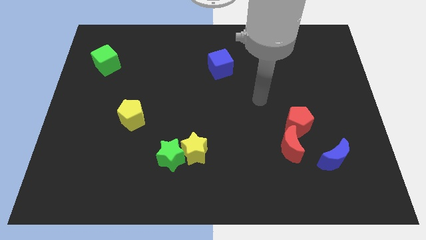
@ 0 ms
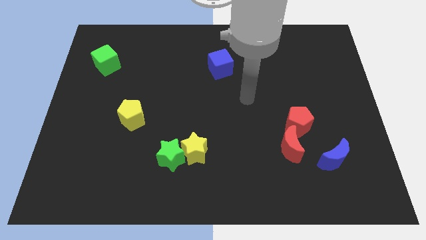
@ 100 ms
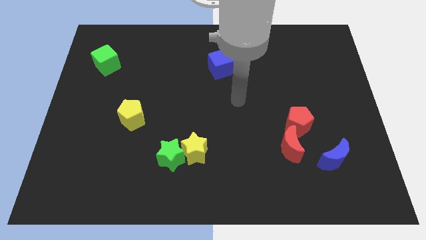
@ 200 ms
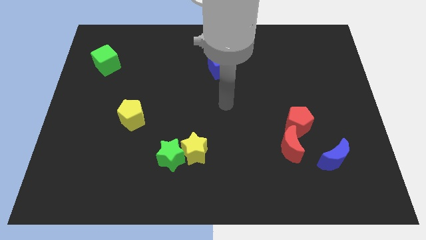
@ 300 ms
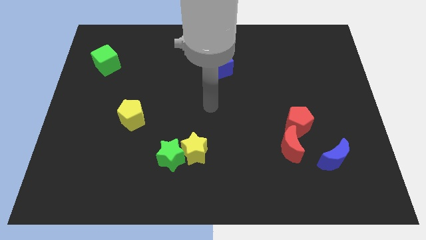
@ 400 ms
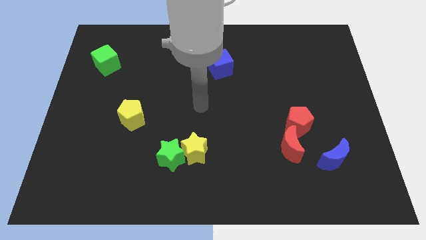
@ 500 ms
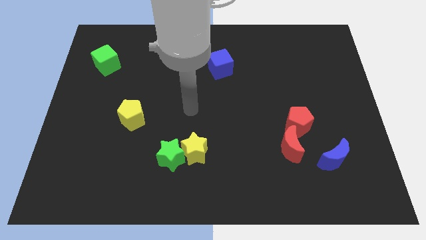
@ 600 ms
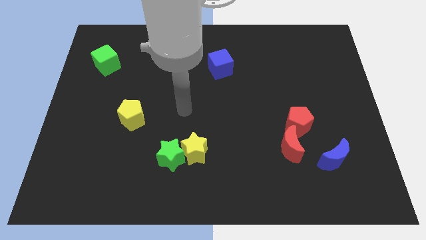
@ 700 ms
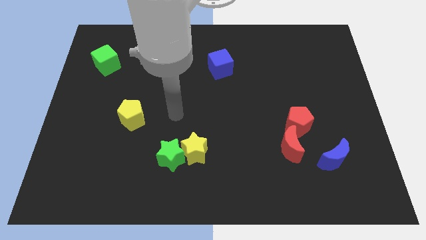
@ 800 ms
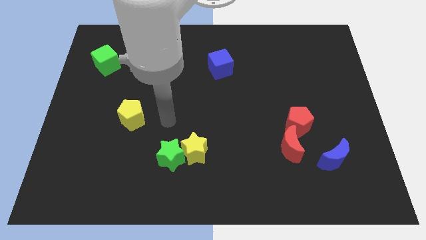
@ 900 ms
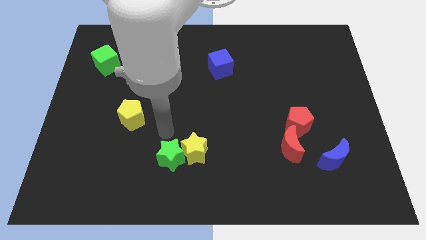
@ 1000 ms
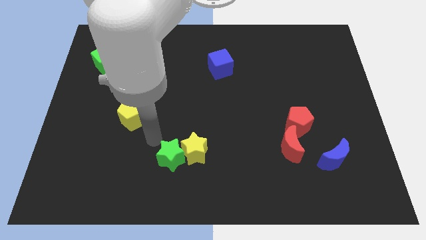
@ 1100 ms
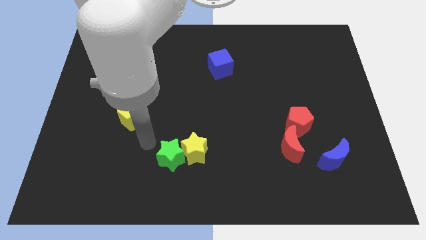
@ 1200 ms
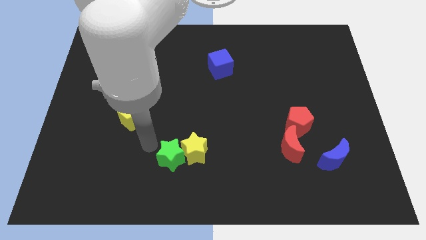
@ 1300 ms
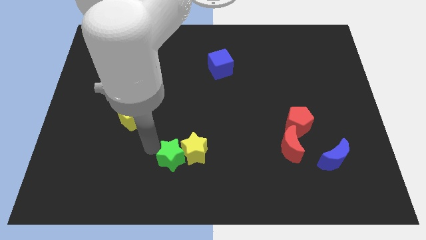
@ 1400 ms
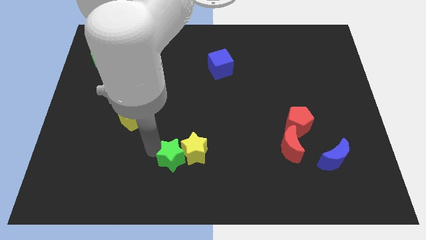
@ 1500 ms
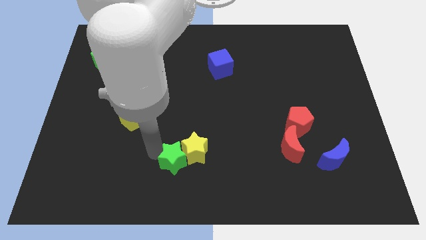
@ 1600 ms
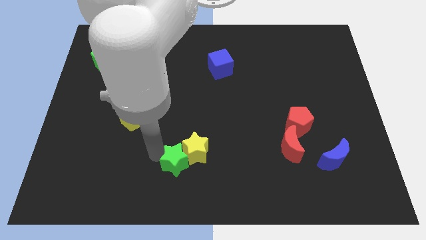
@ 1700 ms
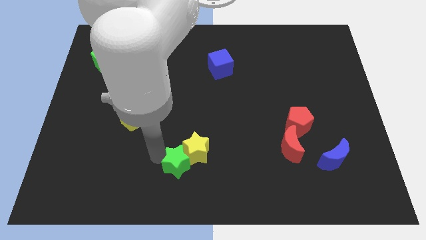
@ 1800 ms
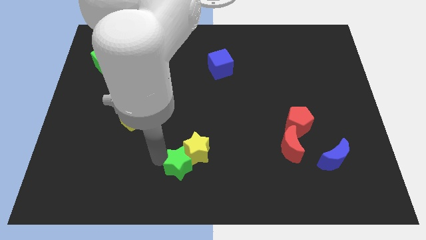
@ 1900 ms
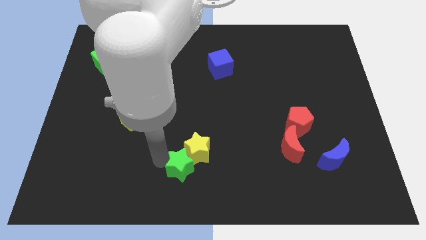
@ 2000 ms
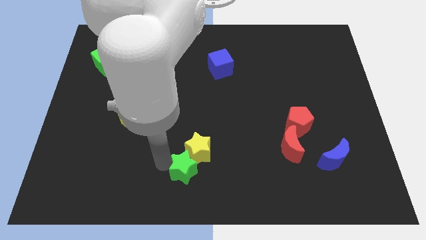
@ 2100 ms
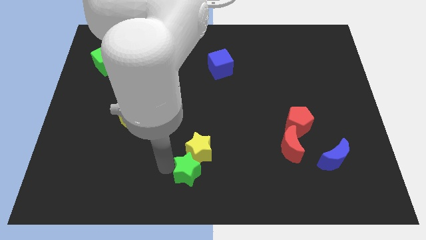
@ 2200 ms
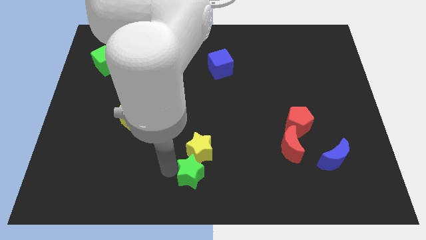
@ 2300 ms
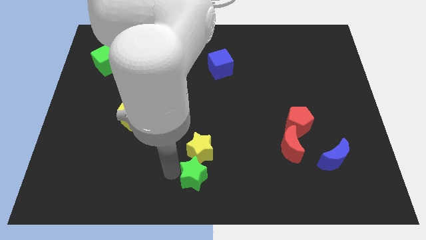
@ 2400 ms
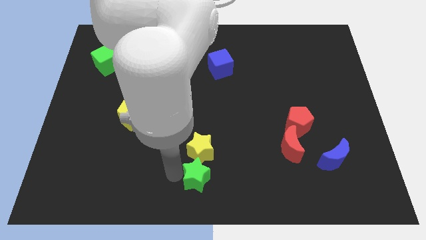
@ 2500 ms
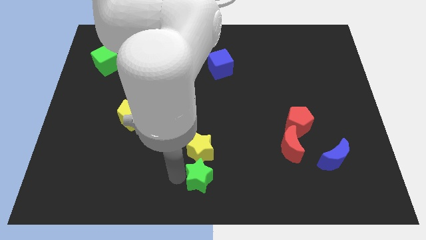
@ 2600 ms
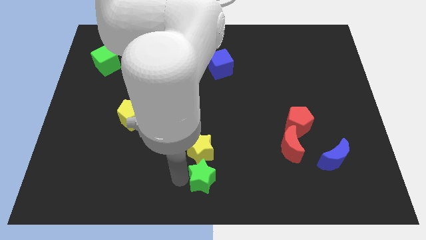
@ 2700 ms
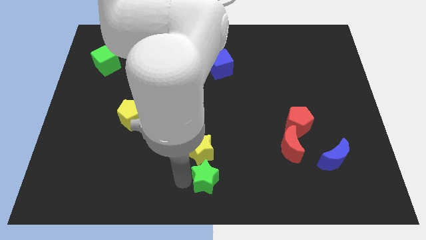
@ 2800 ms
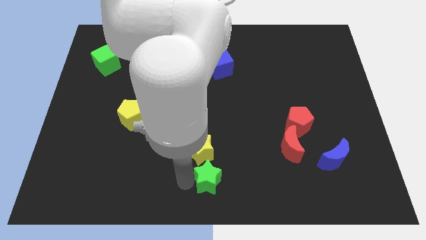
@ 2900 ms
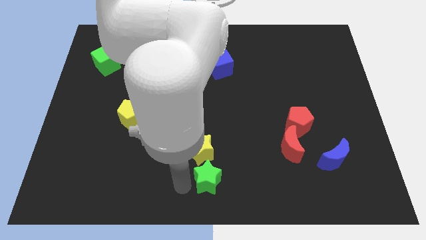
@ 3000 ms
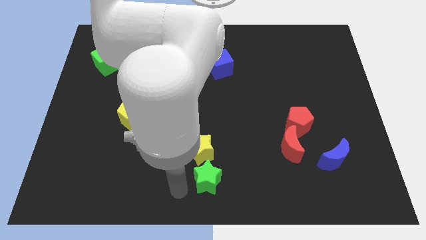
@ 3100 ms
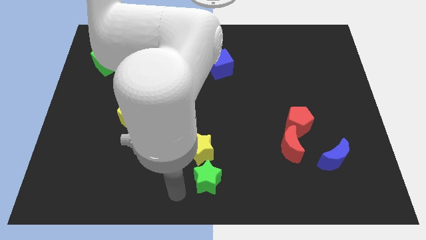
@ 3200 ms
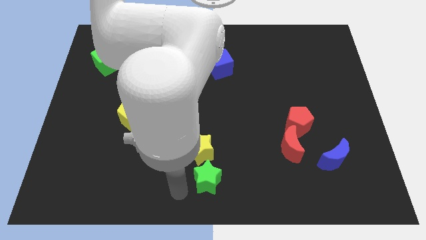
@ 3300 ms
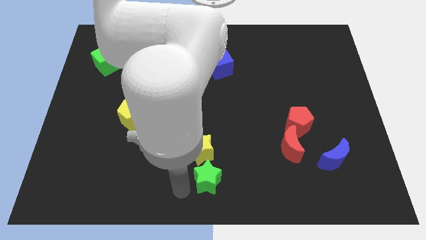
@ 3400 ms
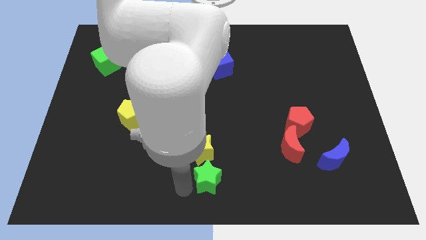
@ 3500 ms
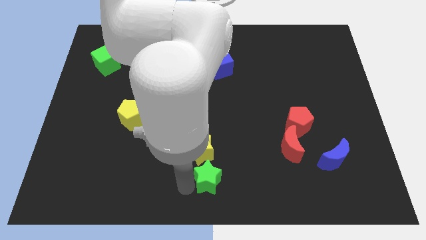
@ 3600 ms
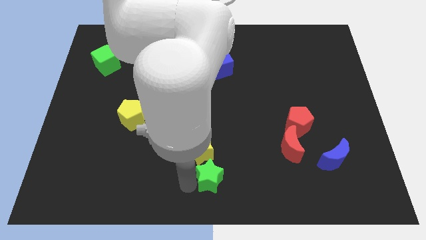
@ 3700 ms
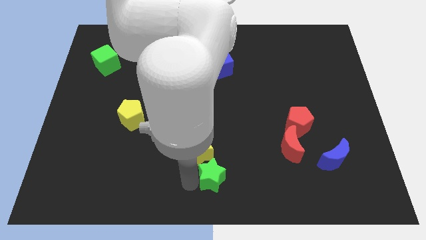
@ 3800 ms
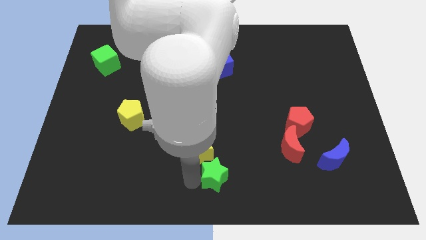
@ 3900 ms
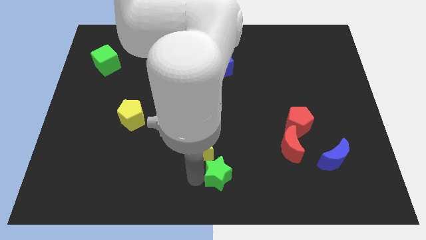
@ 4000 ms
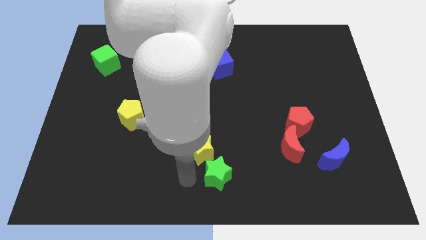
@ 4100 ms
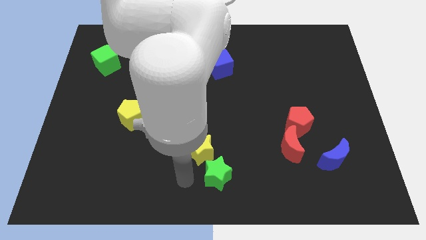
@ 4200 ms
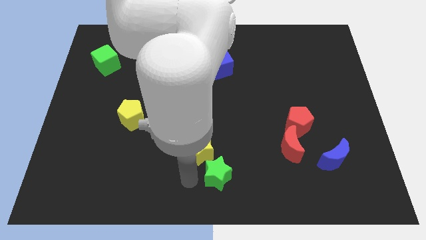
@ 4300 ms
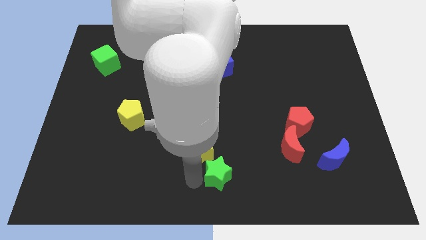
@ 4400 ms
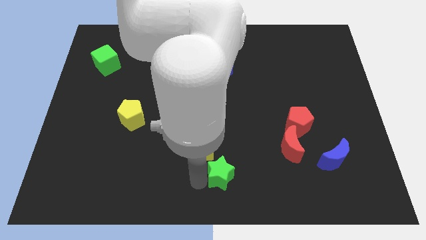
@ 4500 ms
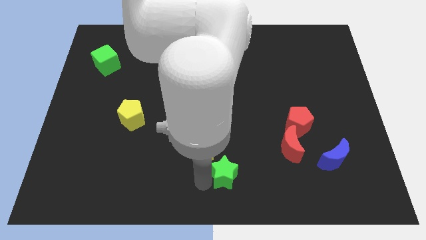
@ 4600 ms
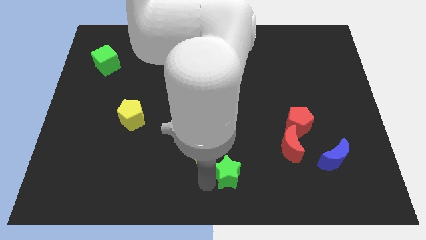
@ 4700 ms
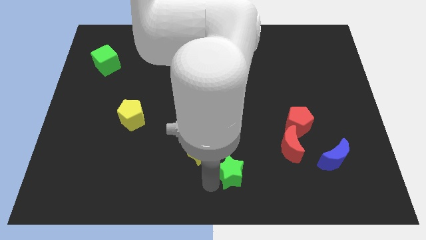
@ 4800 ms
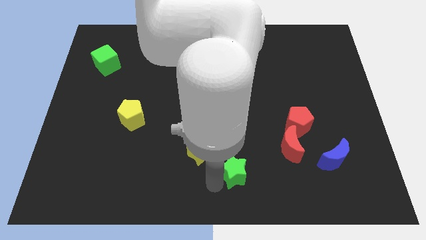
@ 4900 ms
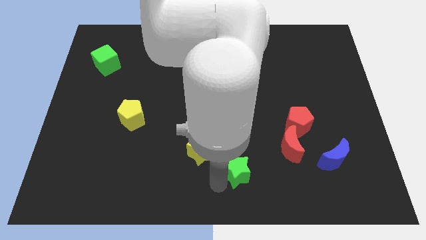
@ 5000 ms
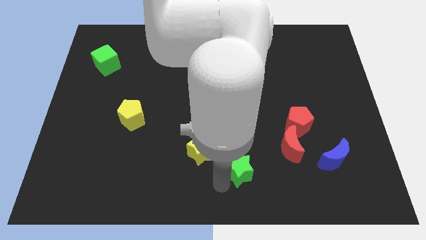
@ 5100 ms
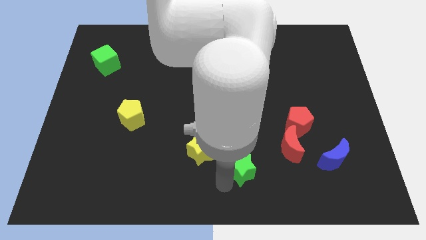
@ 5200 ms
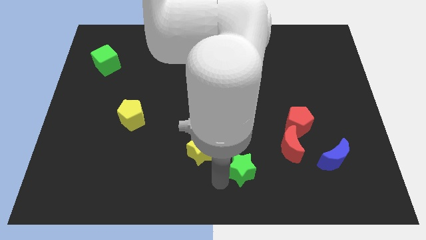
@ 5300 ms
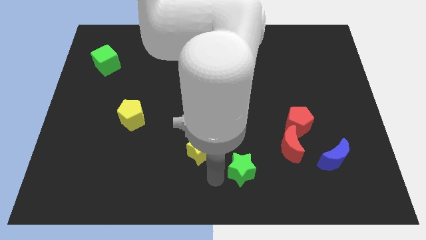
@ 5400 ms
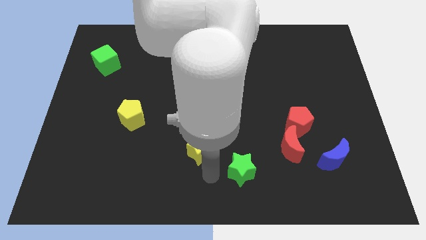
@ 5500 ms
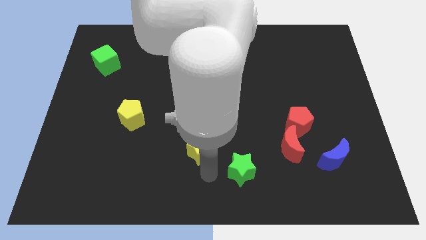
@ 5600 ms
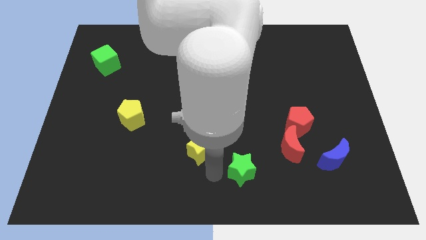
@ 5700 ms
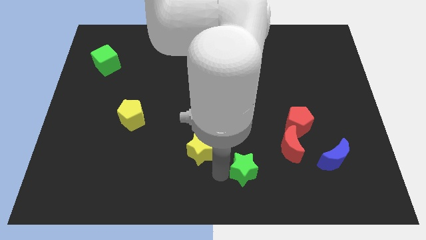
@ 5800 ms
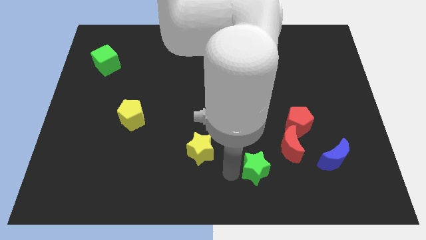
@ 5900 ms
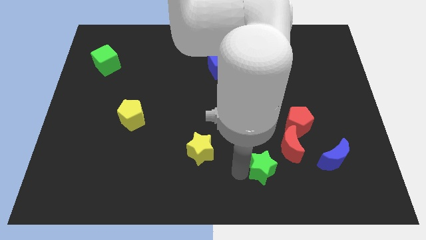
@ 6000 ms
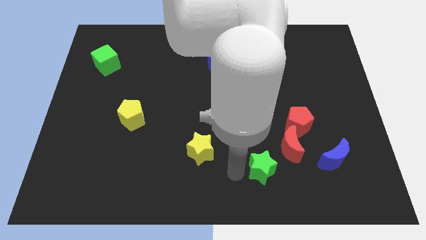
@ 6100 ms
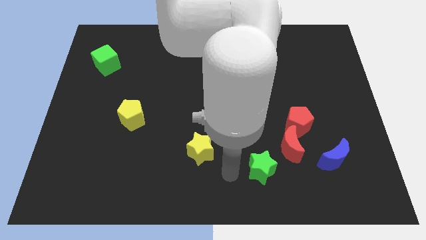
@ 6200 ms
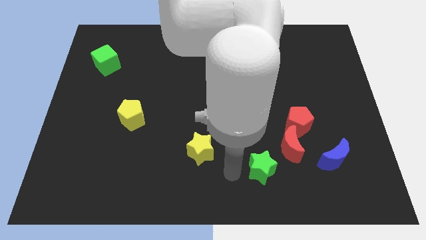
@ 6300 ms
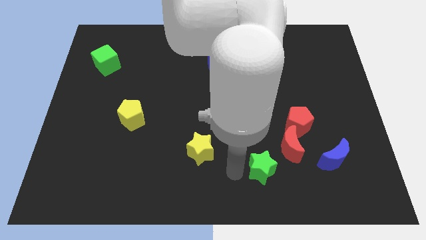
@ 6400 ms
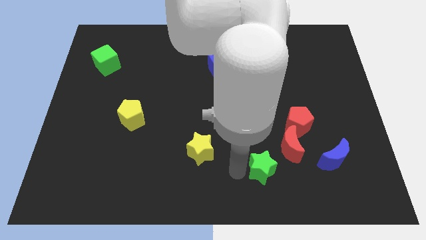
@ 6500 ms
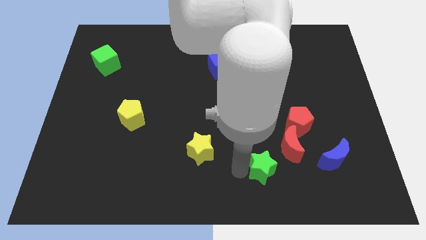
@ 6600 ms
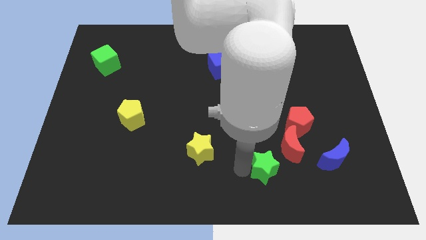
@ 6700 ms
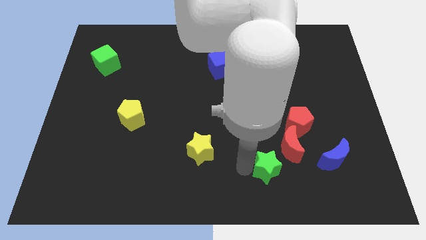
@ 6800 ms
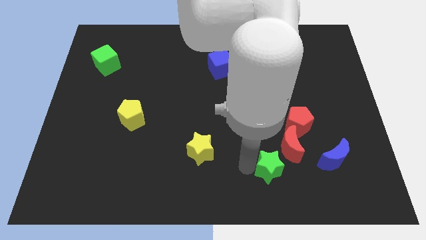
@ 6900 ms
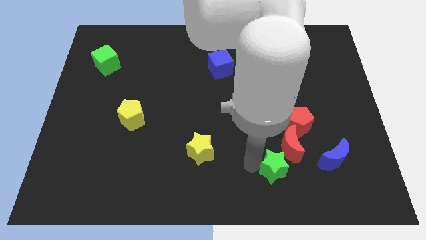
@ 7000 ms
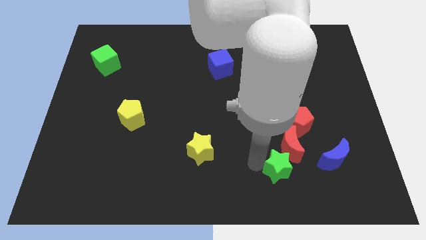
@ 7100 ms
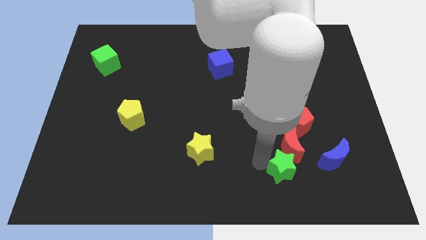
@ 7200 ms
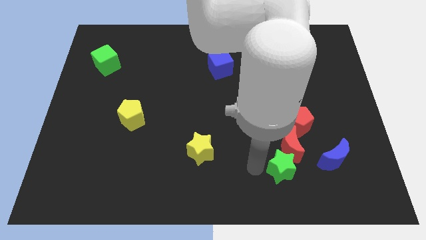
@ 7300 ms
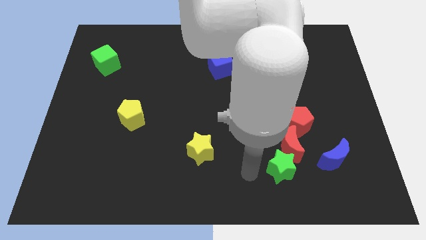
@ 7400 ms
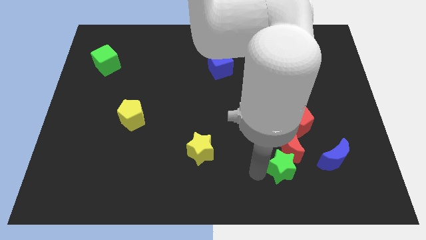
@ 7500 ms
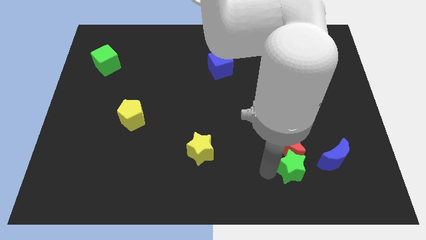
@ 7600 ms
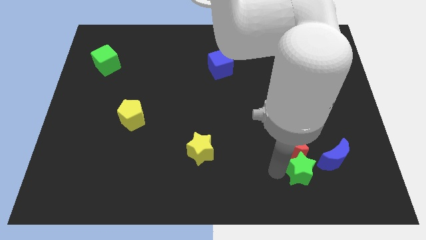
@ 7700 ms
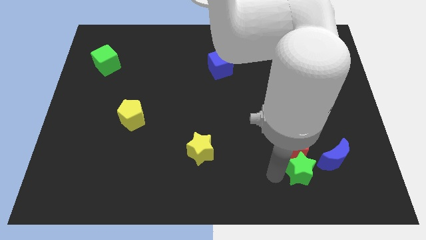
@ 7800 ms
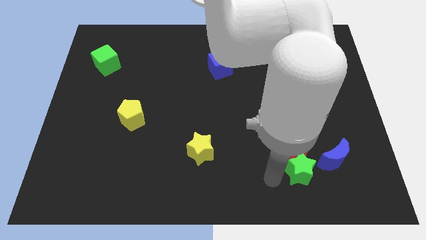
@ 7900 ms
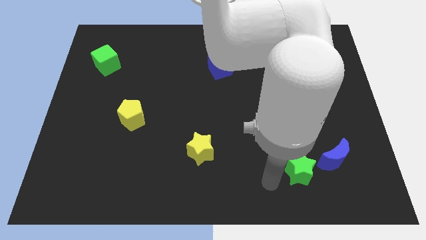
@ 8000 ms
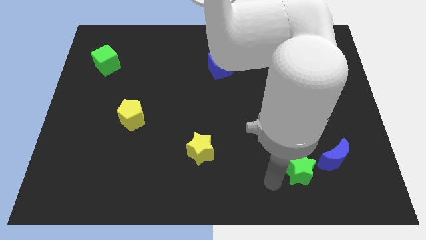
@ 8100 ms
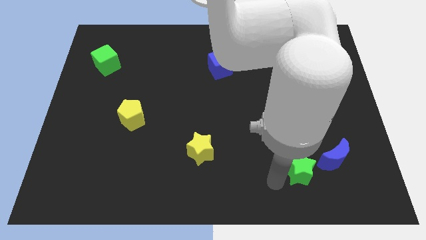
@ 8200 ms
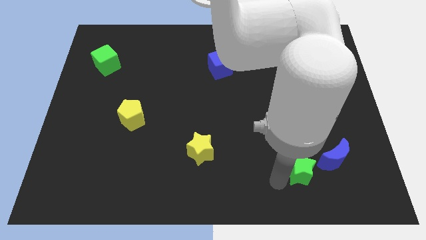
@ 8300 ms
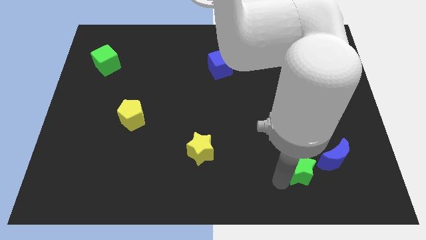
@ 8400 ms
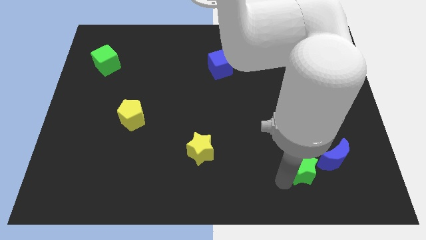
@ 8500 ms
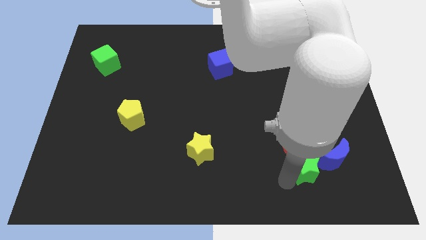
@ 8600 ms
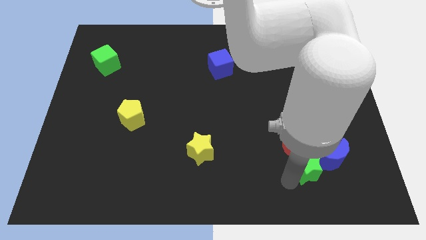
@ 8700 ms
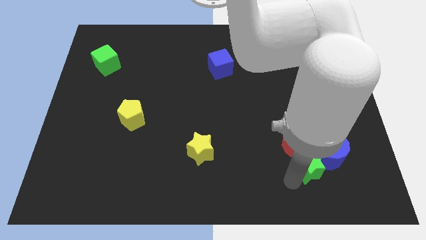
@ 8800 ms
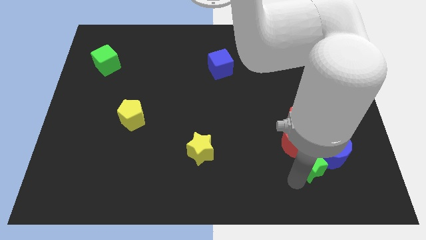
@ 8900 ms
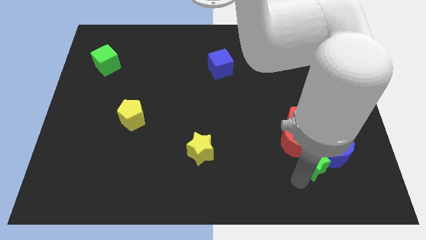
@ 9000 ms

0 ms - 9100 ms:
move the green star towards the blue moon
